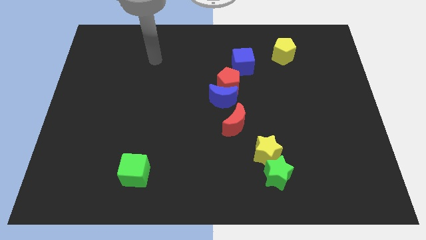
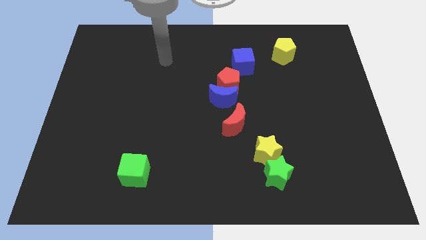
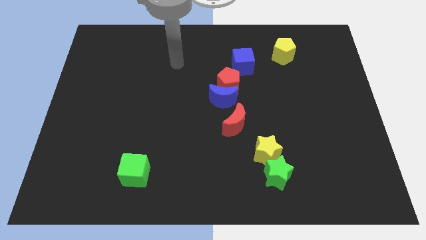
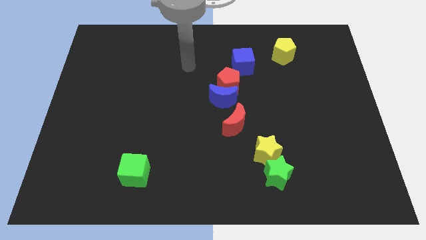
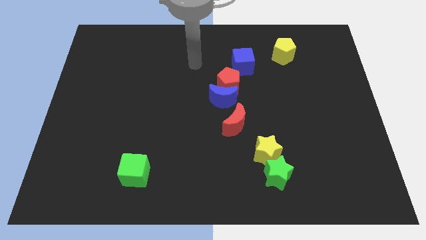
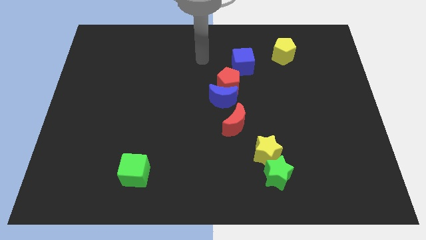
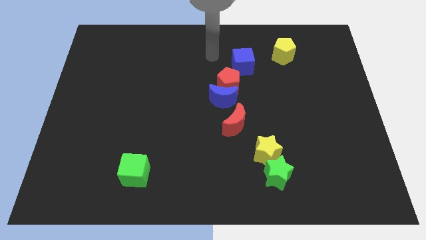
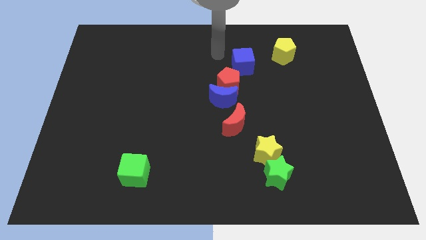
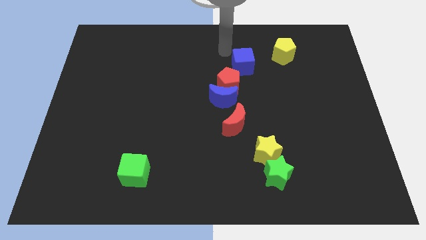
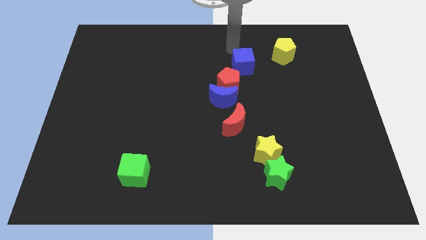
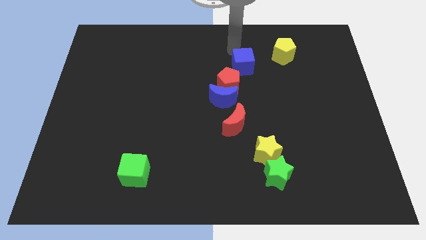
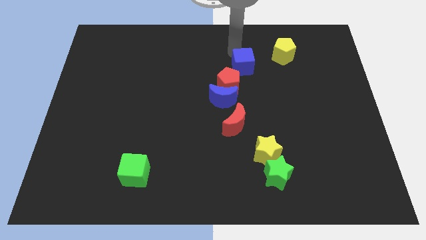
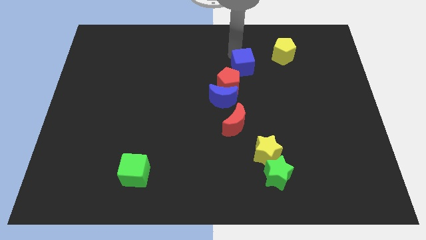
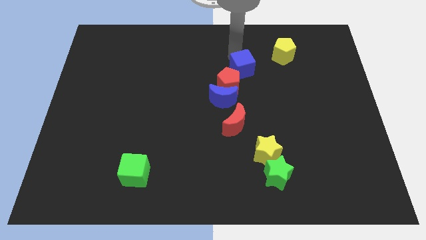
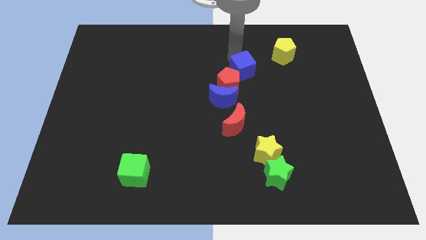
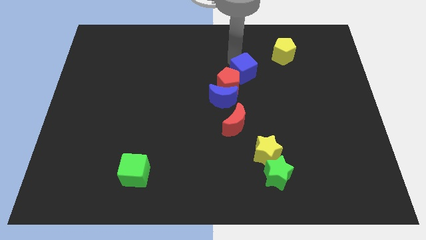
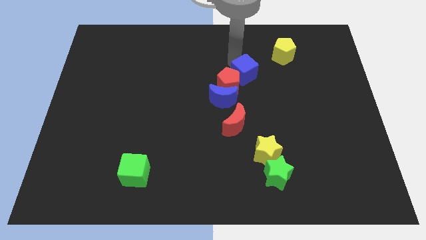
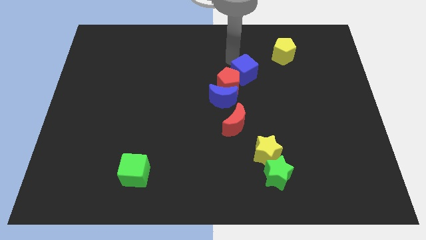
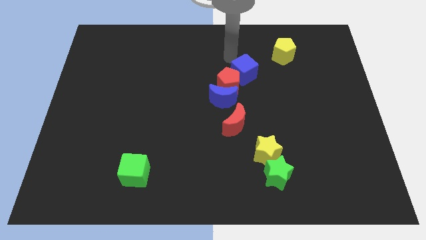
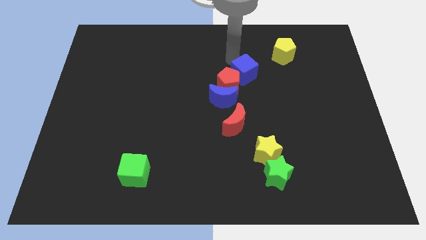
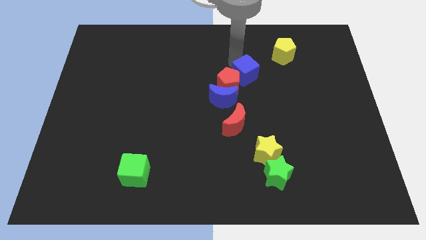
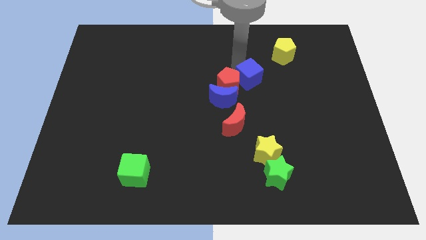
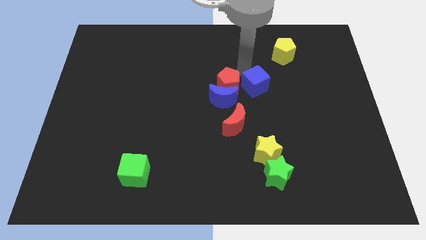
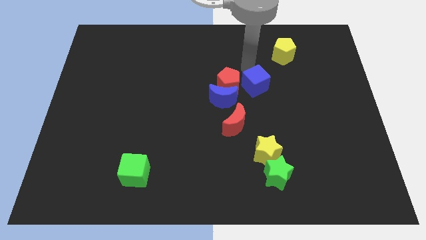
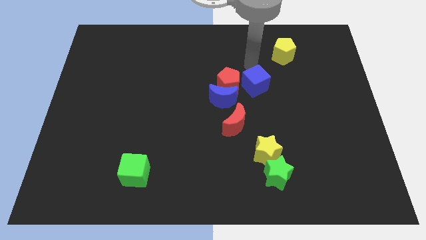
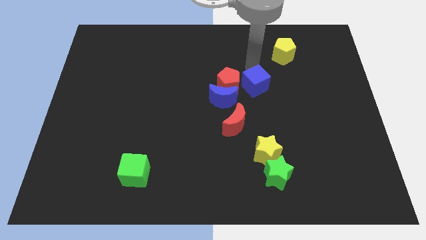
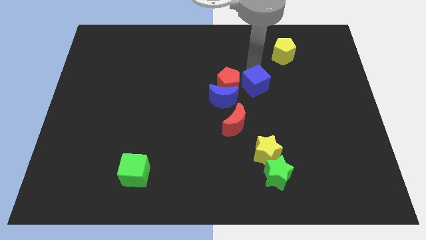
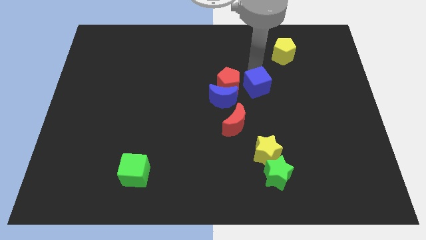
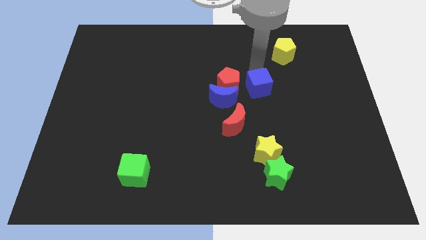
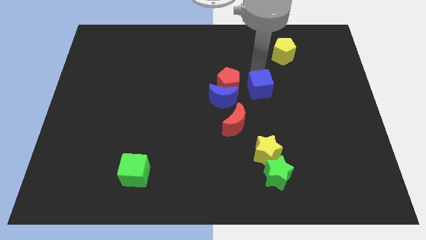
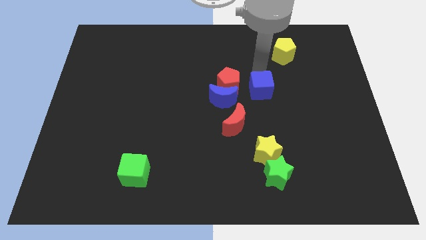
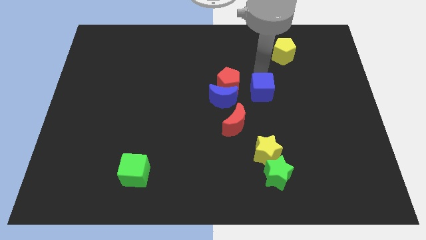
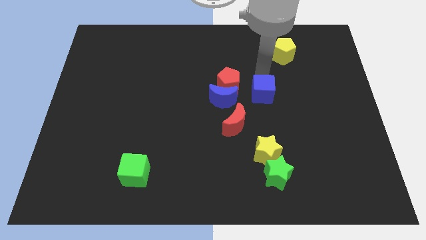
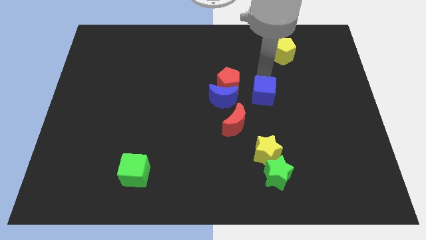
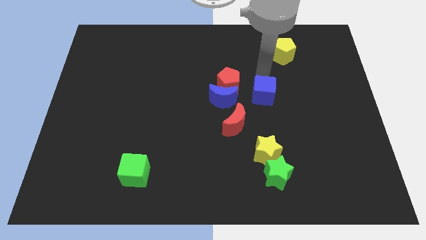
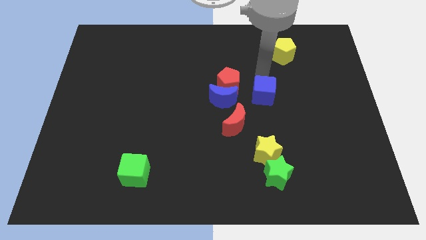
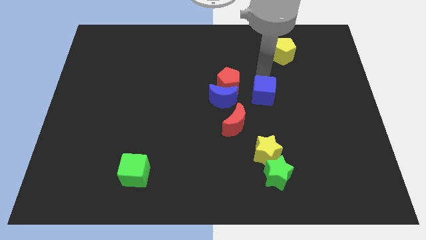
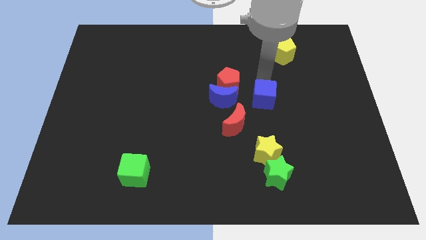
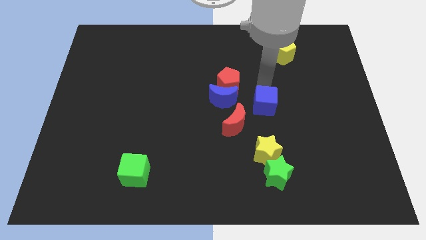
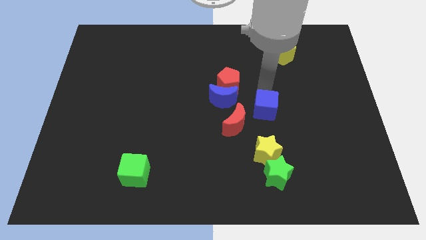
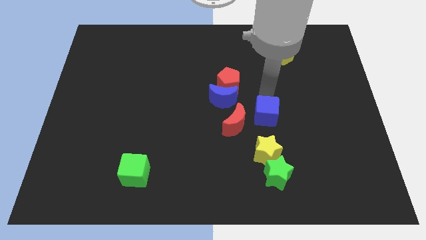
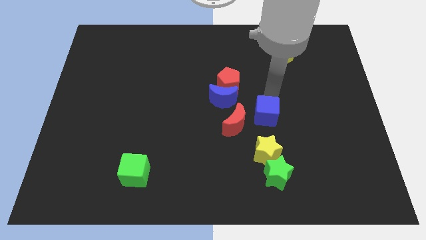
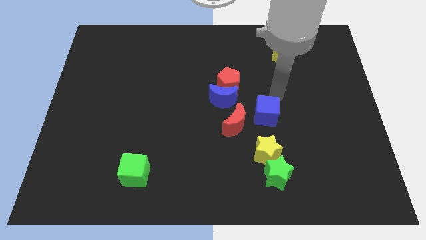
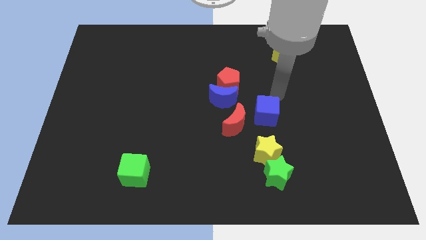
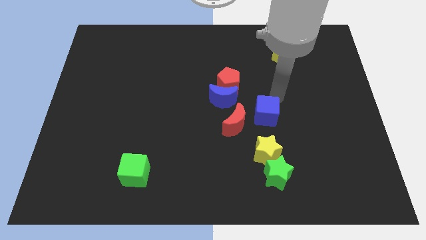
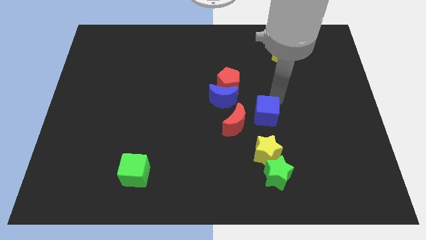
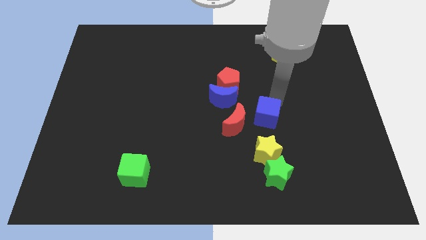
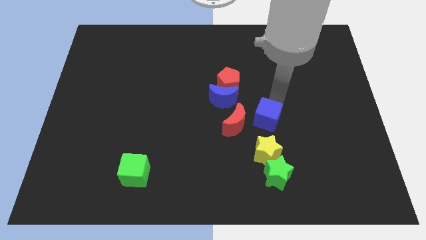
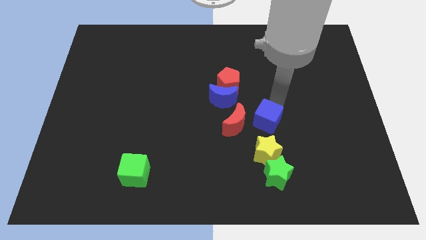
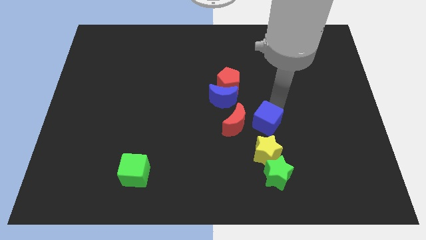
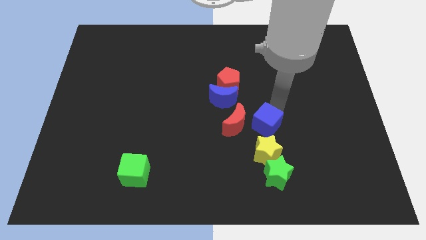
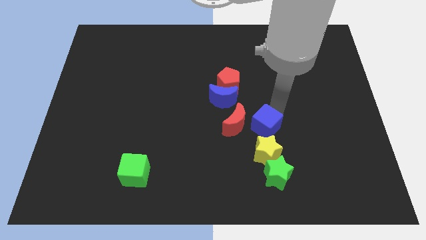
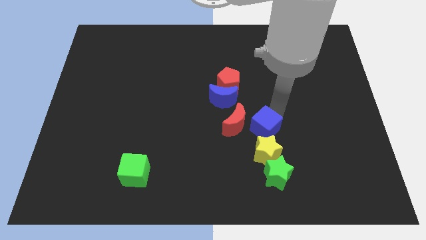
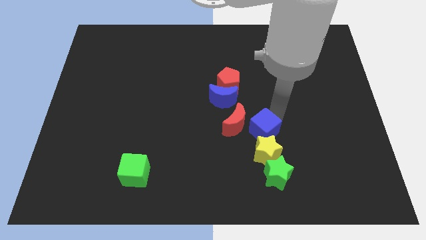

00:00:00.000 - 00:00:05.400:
slide the blue cube downwards

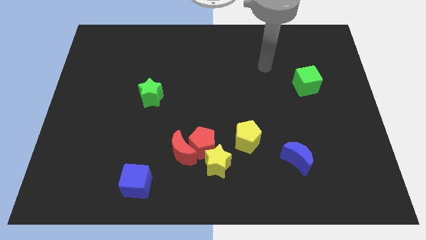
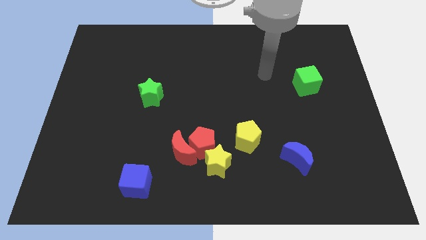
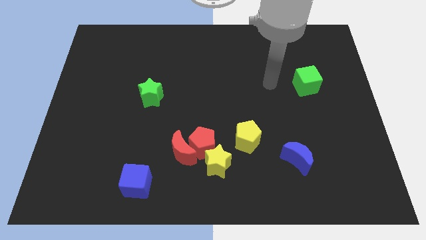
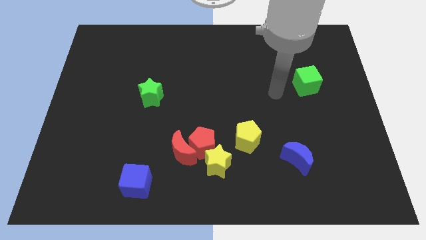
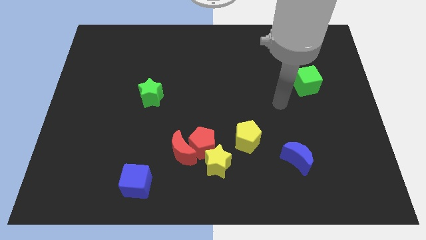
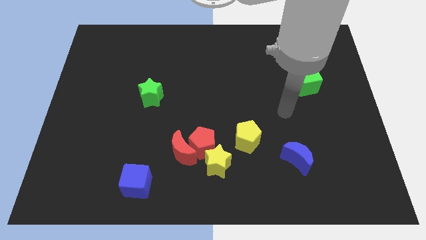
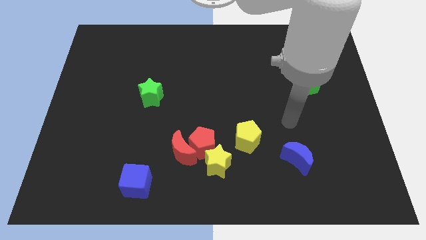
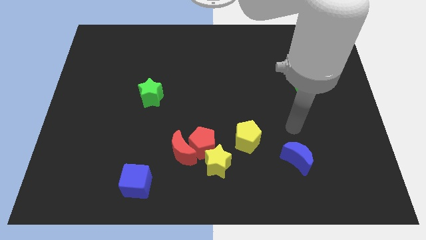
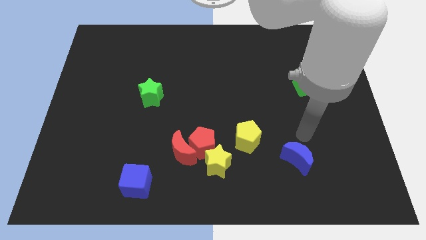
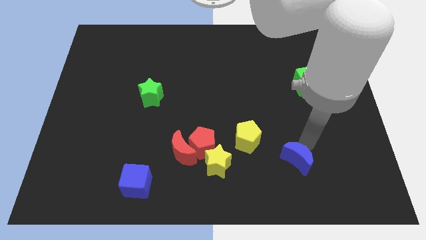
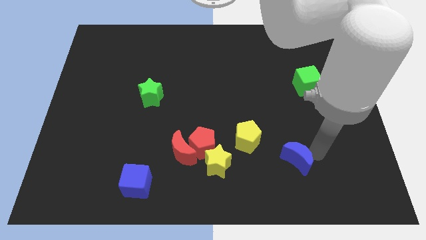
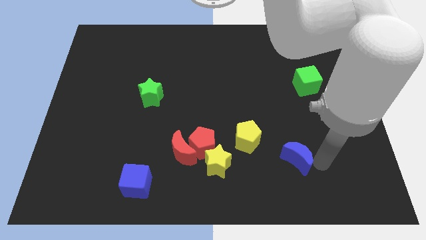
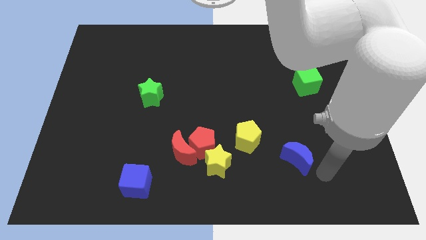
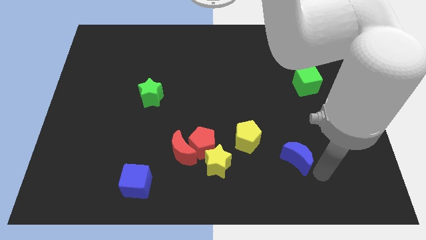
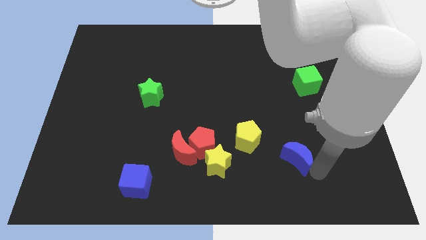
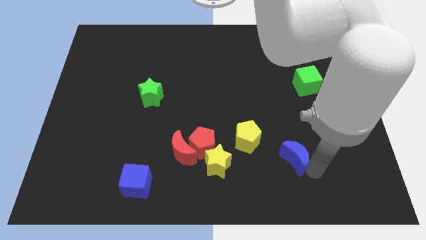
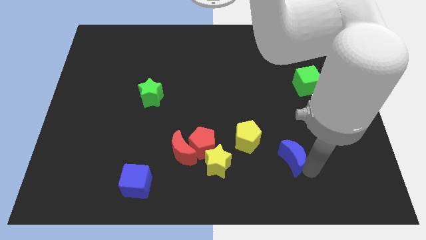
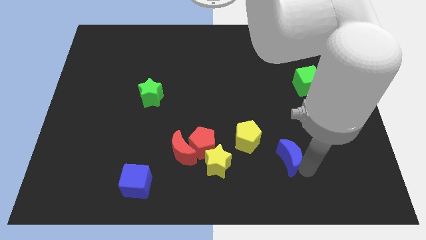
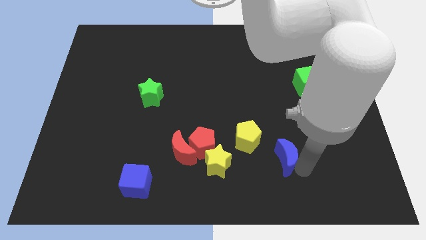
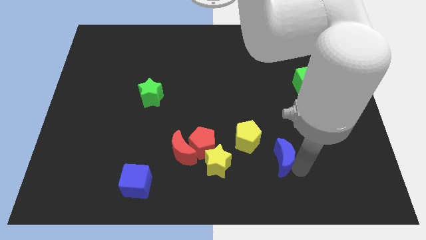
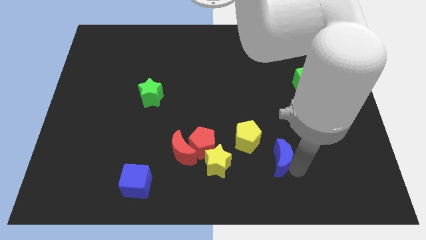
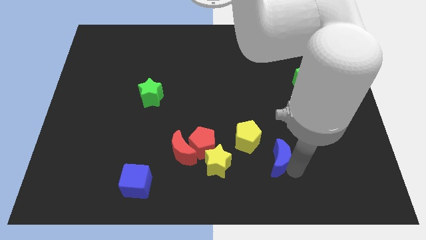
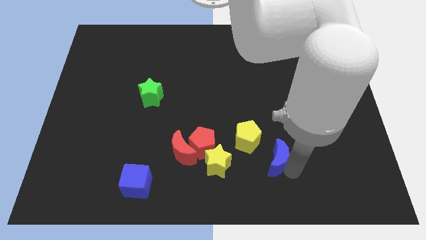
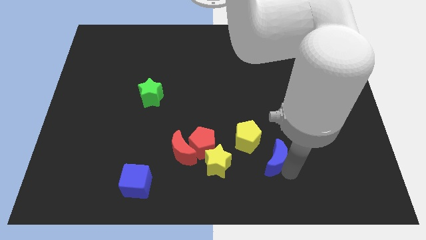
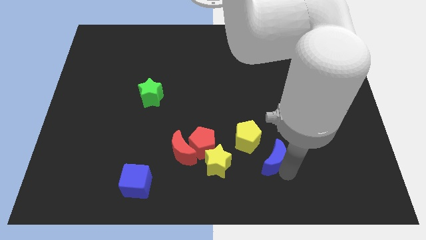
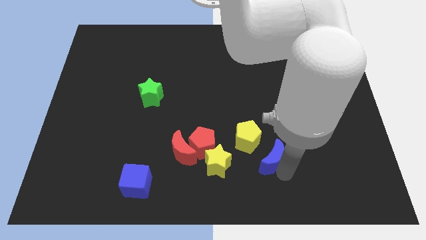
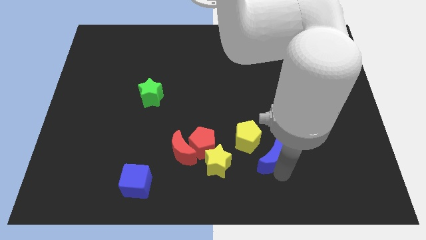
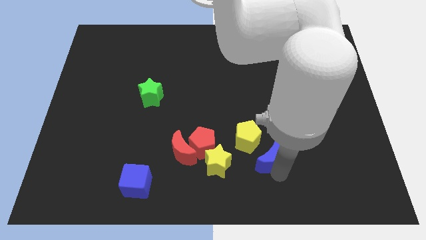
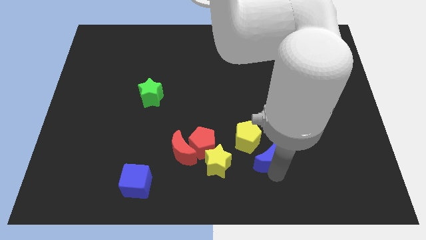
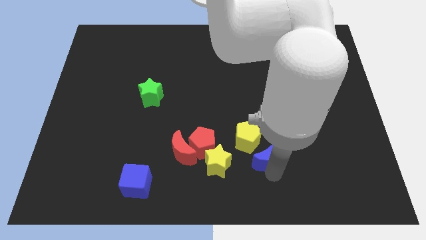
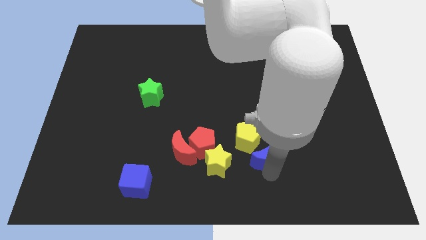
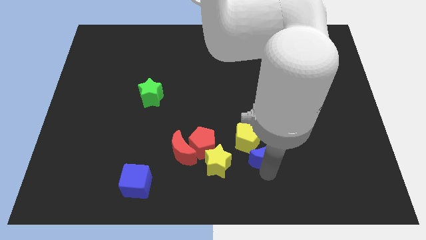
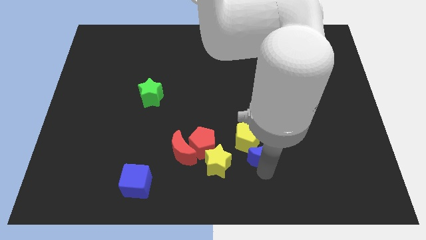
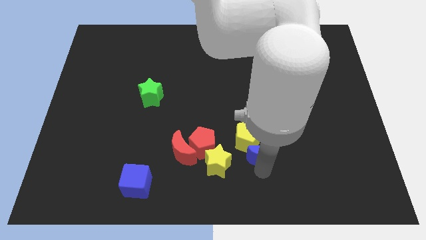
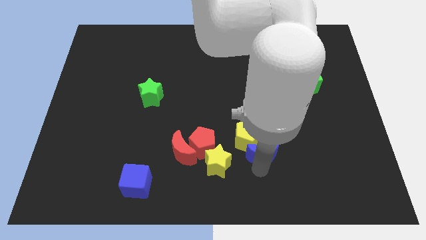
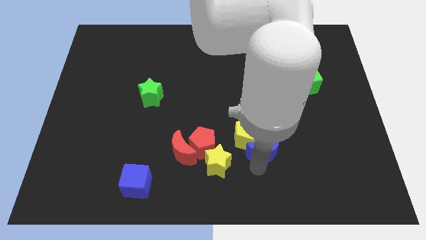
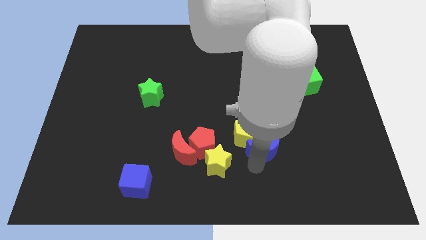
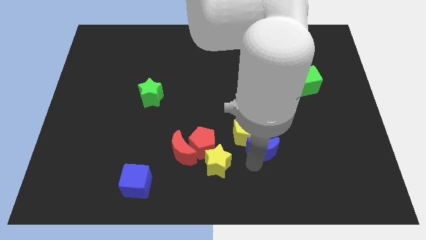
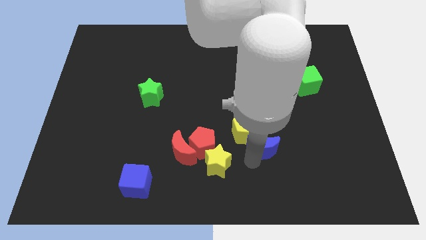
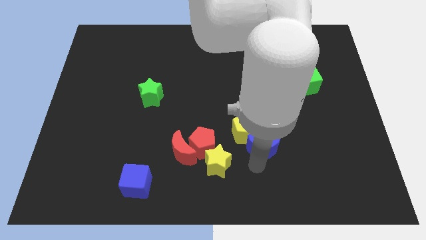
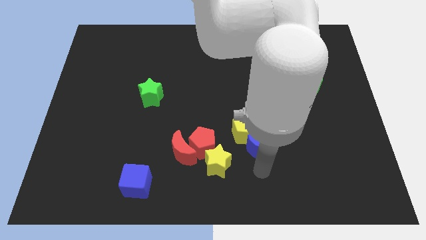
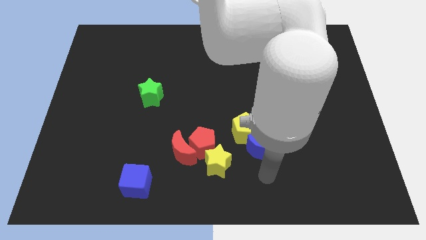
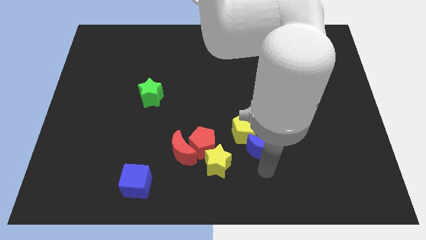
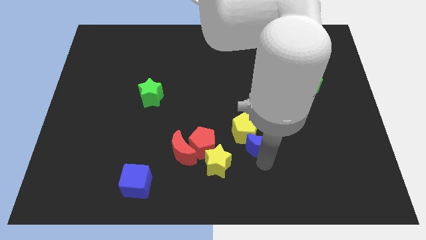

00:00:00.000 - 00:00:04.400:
slide the blue moon somewhat upwards and left
